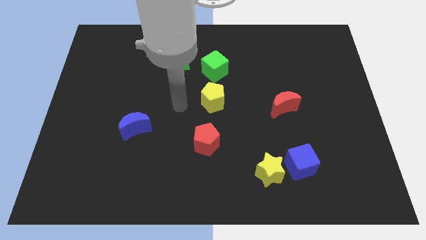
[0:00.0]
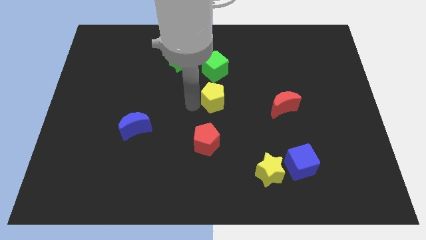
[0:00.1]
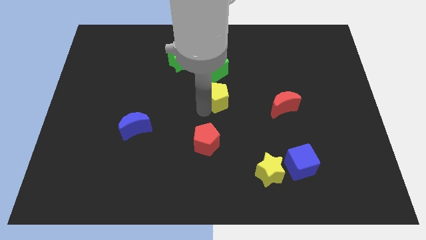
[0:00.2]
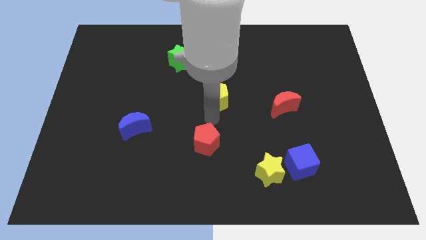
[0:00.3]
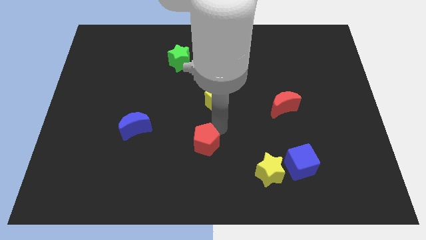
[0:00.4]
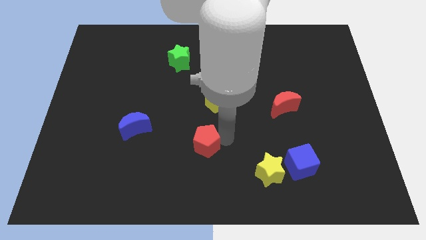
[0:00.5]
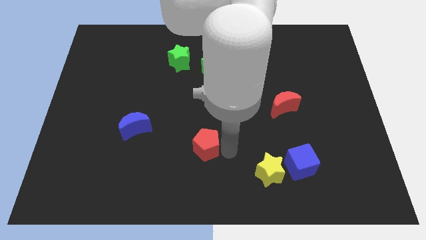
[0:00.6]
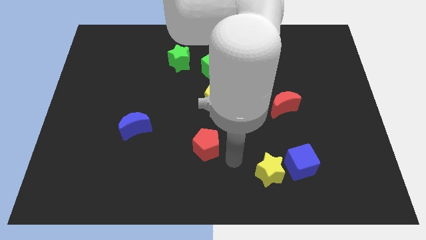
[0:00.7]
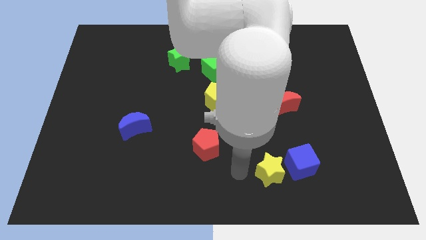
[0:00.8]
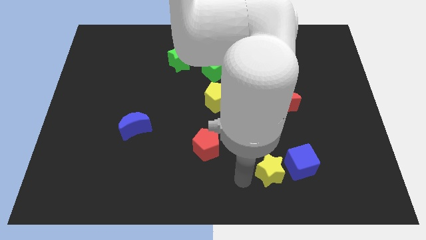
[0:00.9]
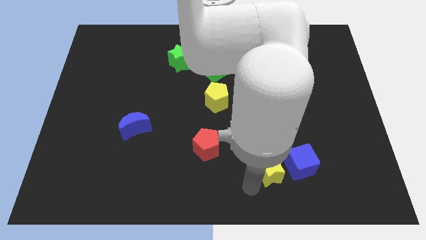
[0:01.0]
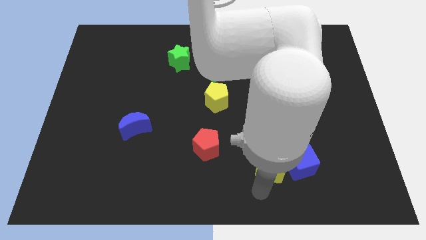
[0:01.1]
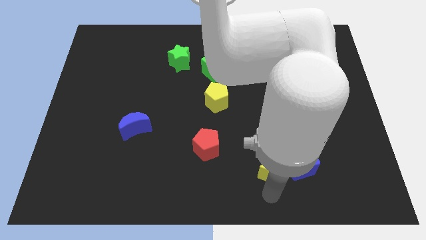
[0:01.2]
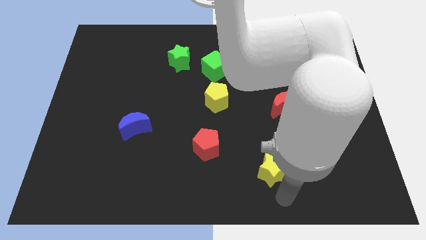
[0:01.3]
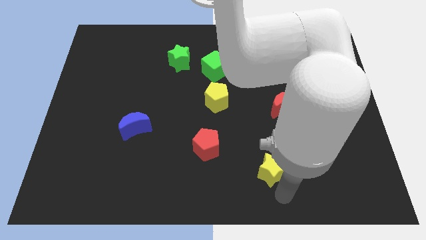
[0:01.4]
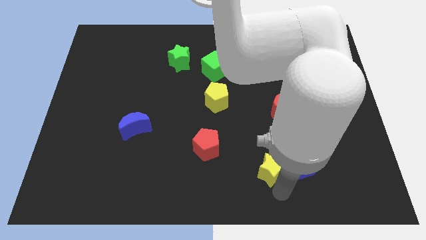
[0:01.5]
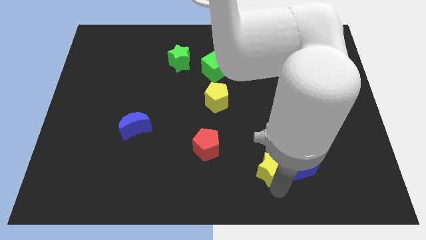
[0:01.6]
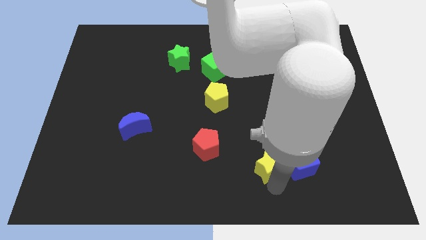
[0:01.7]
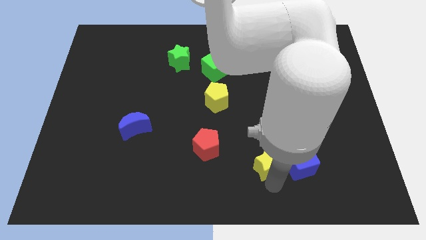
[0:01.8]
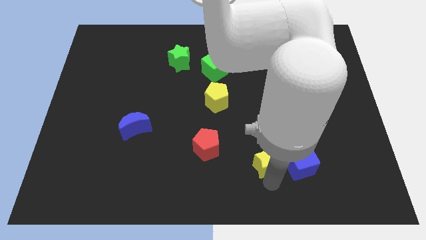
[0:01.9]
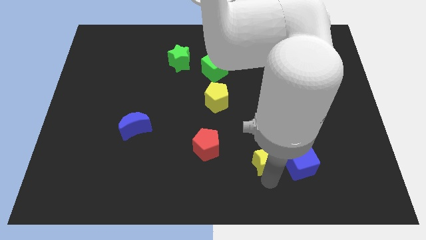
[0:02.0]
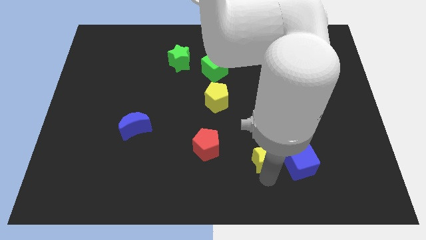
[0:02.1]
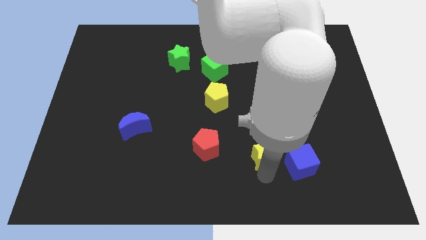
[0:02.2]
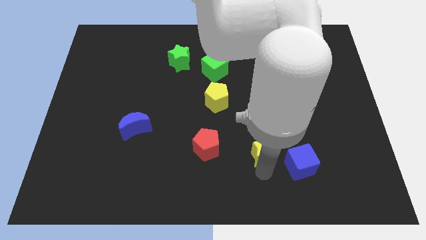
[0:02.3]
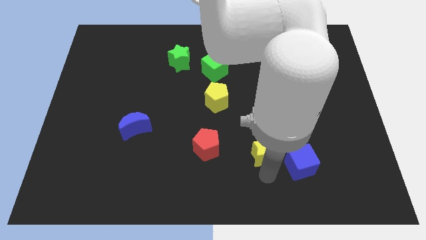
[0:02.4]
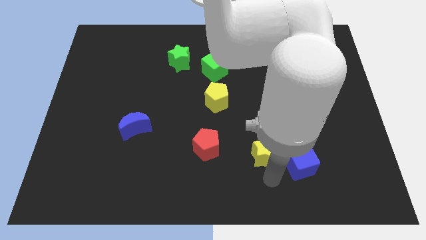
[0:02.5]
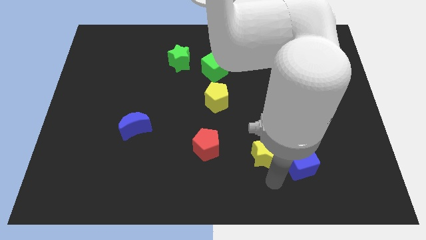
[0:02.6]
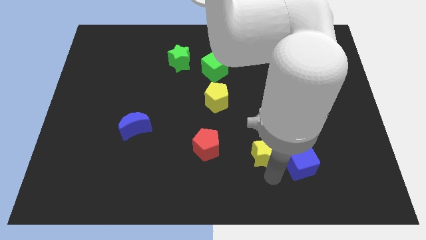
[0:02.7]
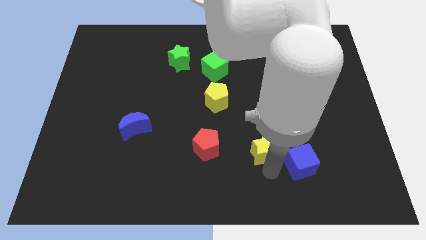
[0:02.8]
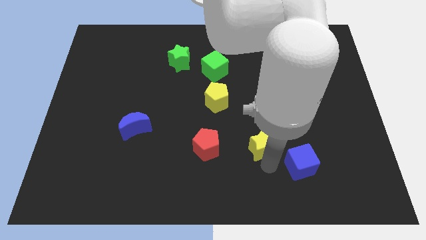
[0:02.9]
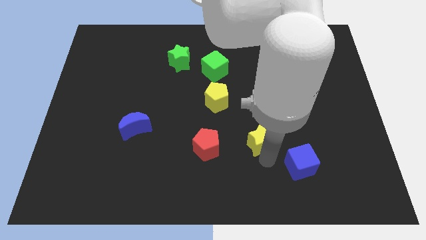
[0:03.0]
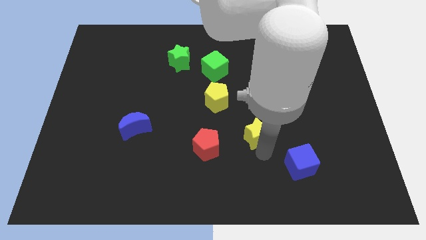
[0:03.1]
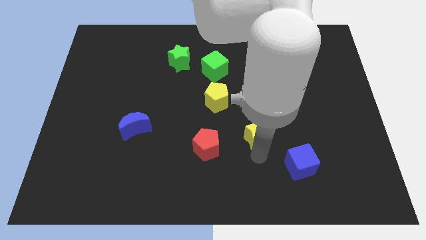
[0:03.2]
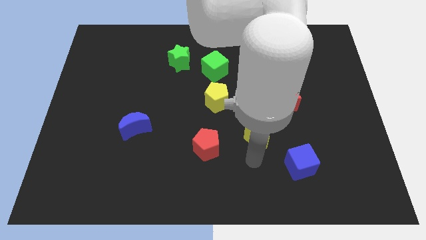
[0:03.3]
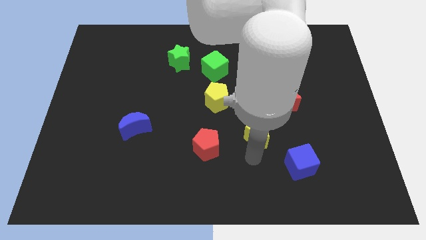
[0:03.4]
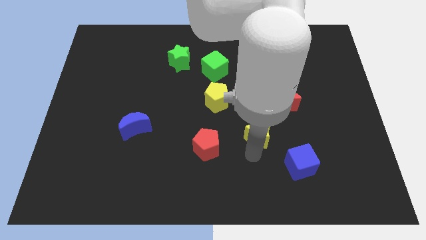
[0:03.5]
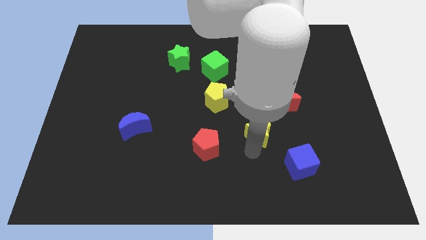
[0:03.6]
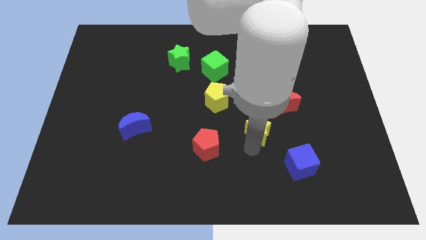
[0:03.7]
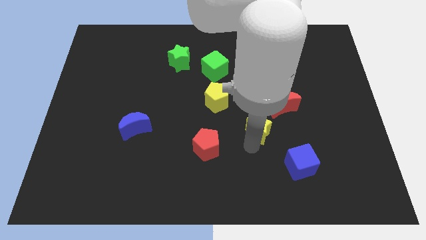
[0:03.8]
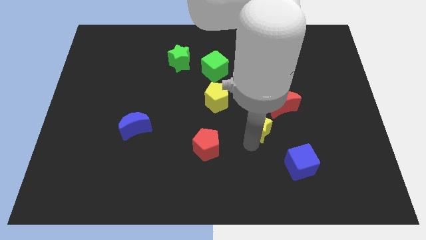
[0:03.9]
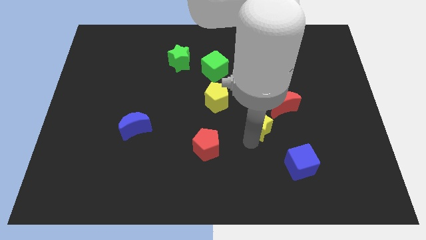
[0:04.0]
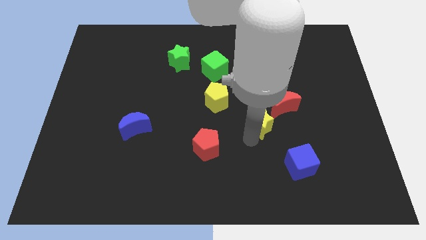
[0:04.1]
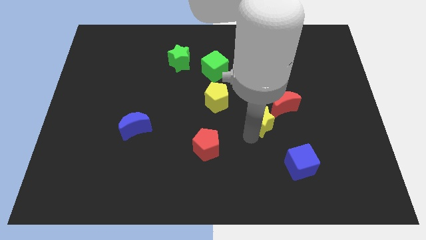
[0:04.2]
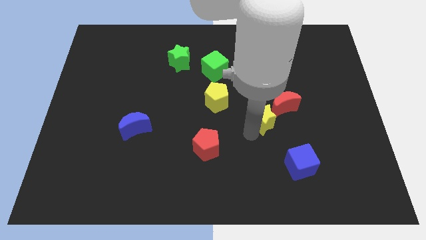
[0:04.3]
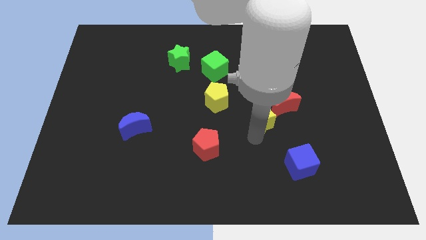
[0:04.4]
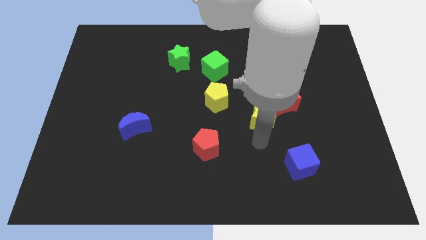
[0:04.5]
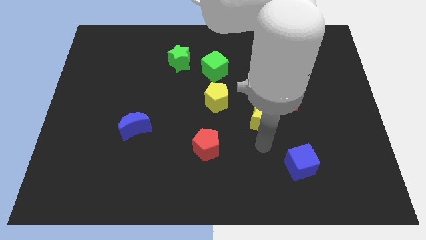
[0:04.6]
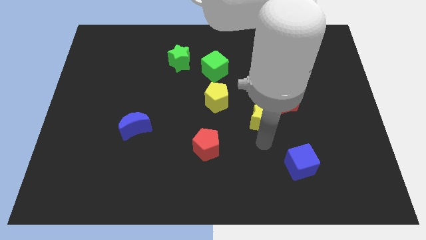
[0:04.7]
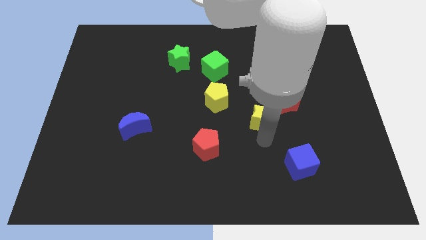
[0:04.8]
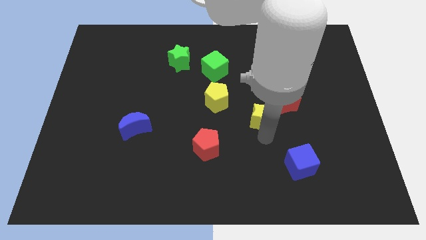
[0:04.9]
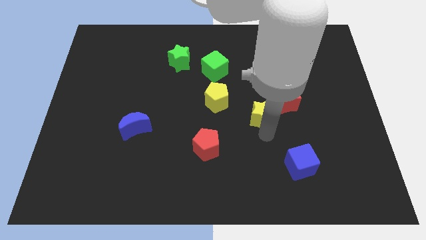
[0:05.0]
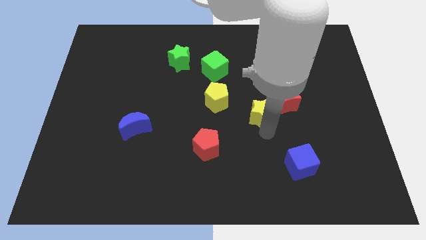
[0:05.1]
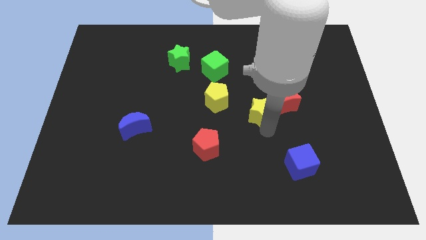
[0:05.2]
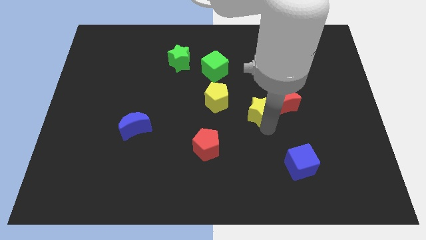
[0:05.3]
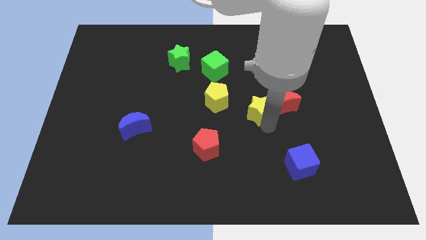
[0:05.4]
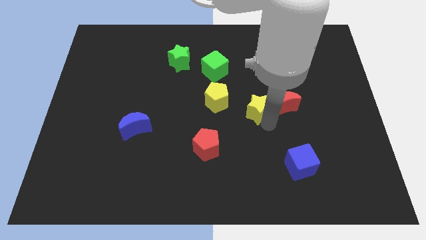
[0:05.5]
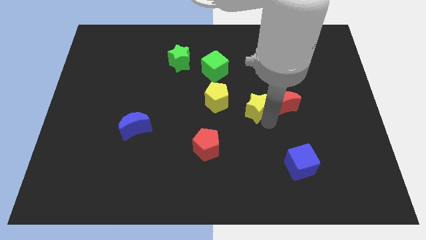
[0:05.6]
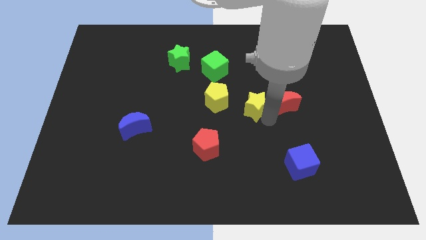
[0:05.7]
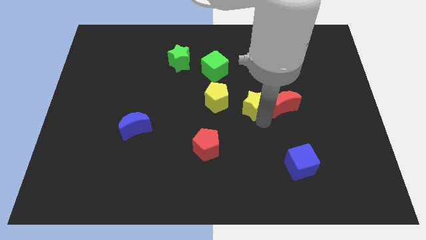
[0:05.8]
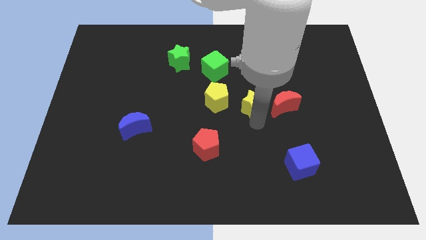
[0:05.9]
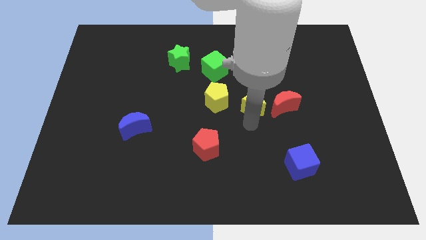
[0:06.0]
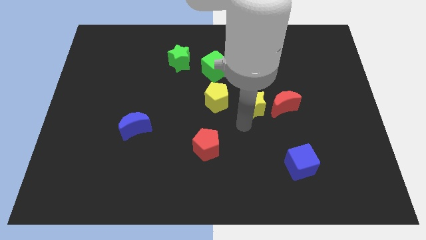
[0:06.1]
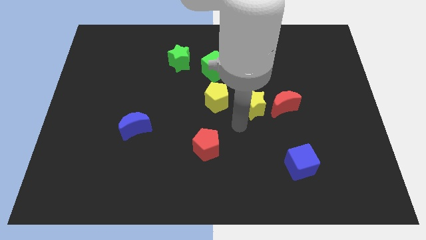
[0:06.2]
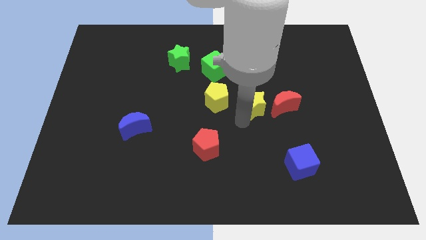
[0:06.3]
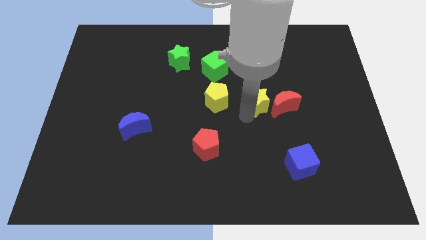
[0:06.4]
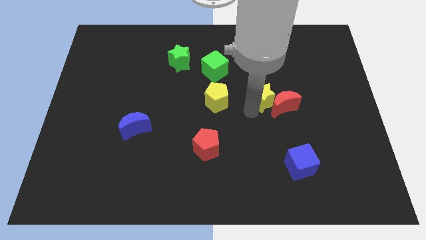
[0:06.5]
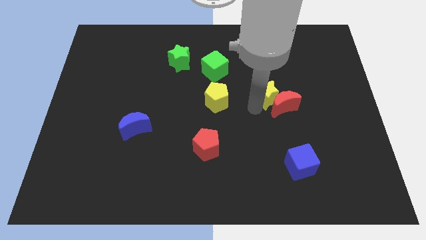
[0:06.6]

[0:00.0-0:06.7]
move the yellow star to the top of the red moon

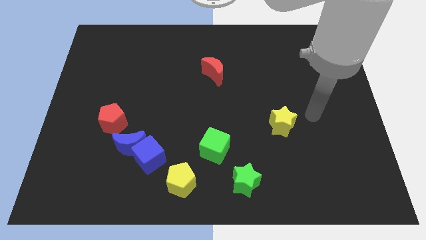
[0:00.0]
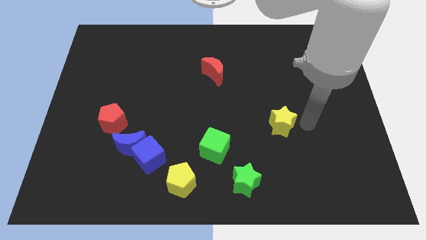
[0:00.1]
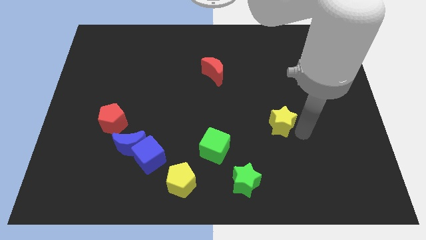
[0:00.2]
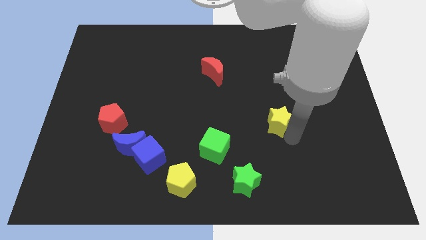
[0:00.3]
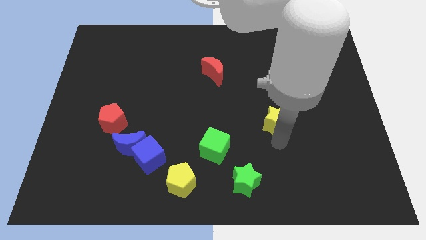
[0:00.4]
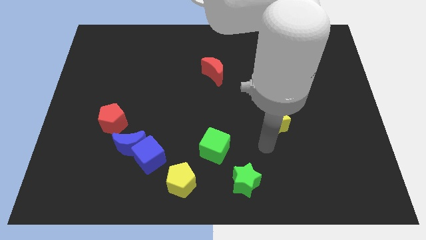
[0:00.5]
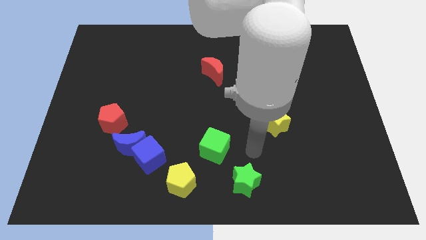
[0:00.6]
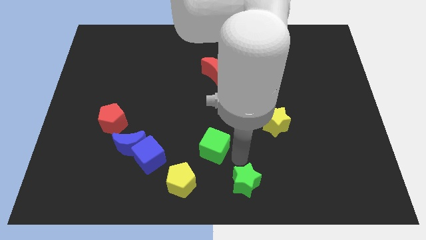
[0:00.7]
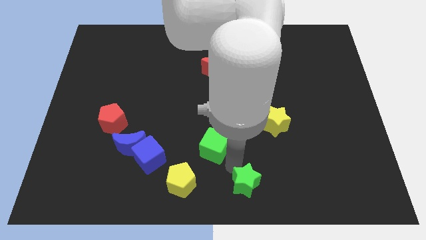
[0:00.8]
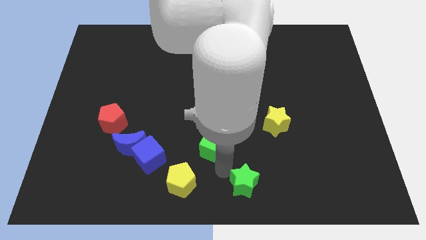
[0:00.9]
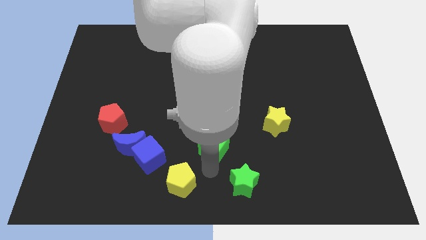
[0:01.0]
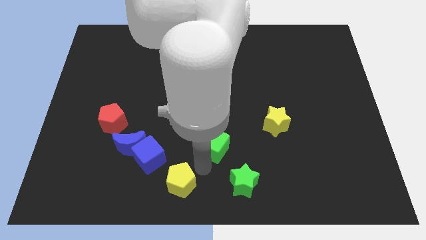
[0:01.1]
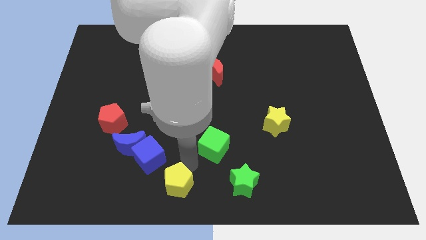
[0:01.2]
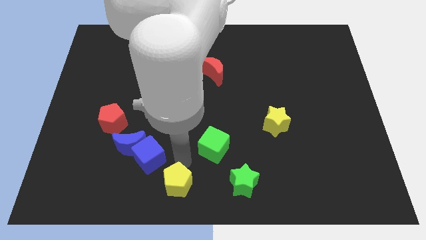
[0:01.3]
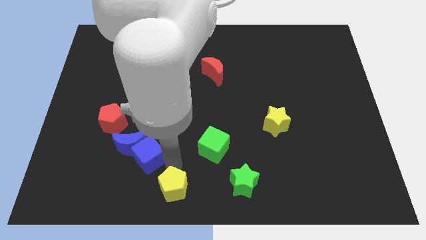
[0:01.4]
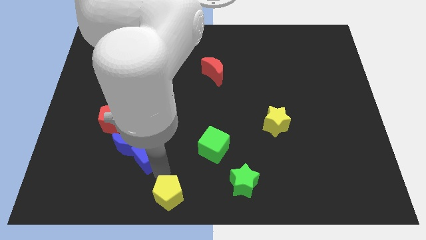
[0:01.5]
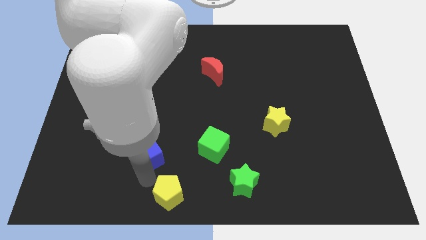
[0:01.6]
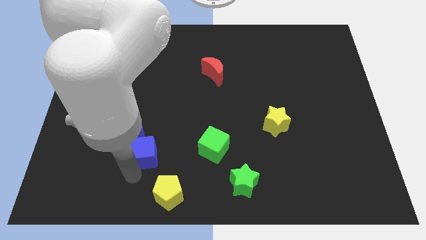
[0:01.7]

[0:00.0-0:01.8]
move the blue moon right of the red pentagon
